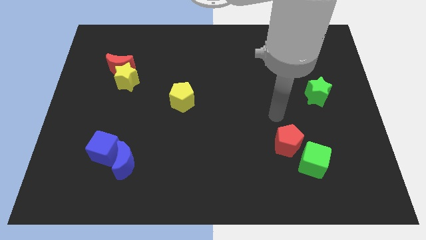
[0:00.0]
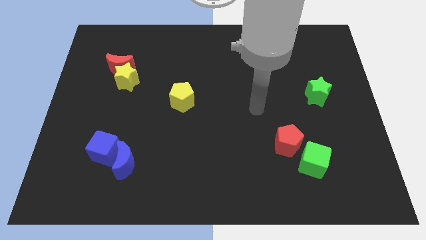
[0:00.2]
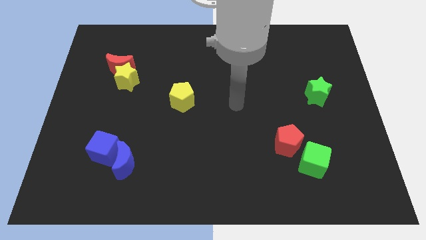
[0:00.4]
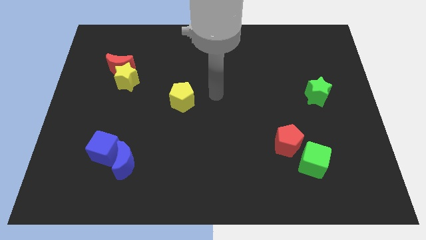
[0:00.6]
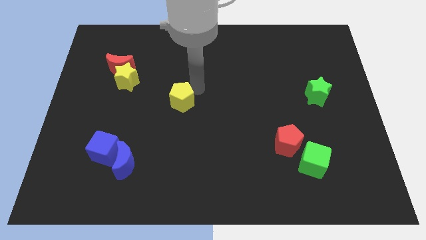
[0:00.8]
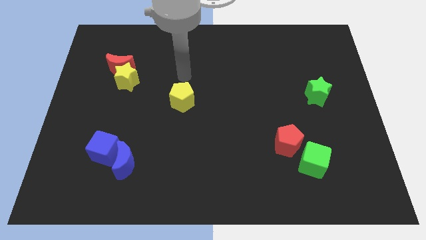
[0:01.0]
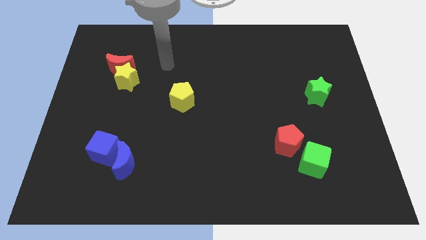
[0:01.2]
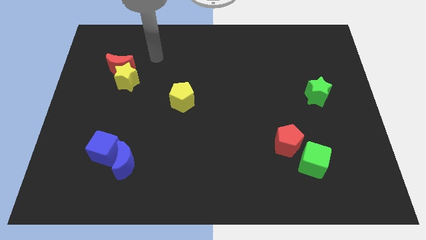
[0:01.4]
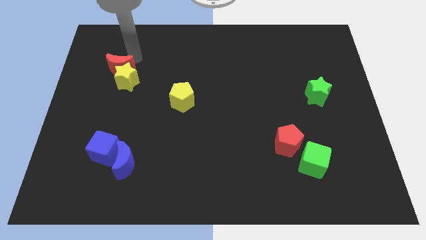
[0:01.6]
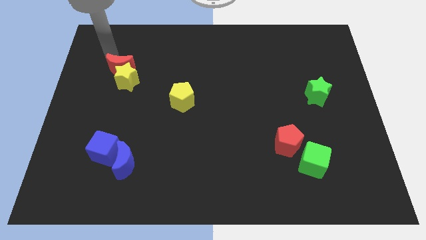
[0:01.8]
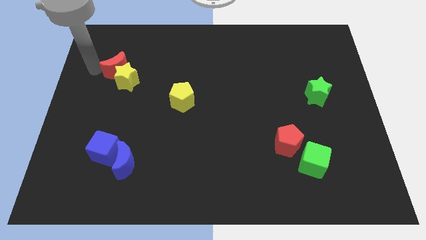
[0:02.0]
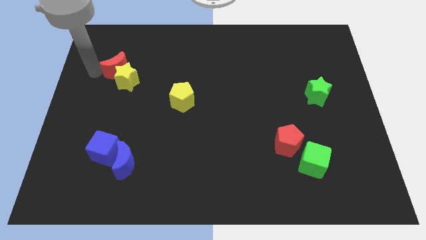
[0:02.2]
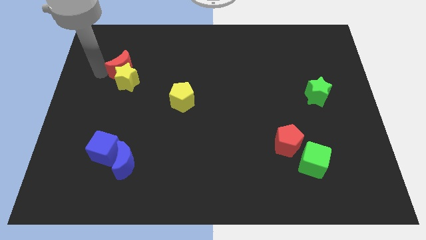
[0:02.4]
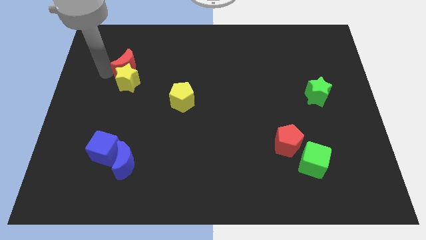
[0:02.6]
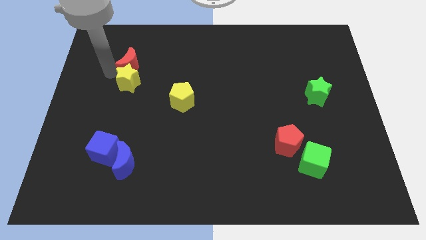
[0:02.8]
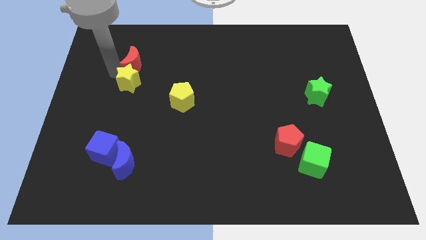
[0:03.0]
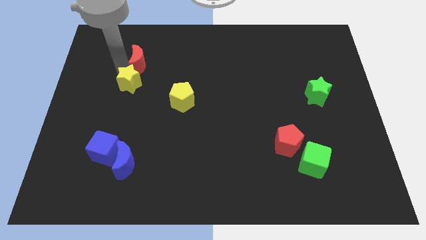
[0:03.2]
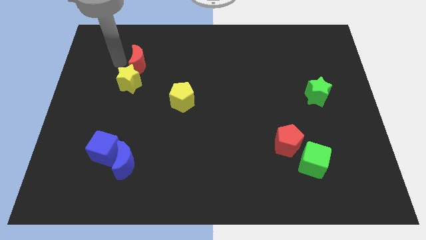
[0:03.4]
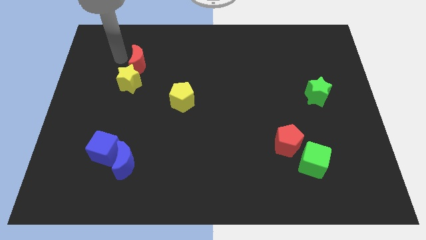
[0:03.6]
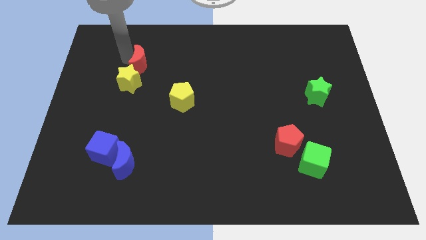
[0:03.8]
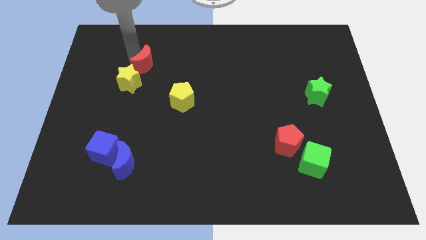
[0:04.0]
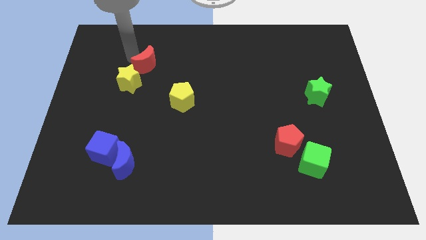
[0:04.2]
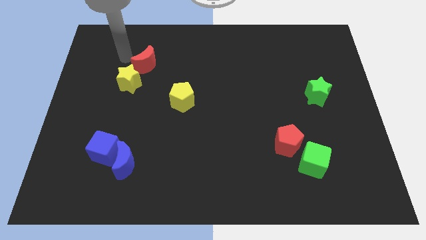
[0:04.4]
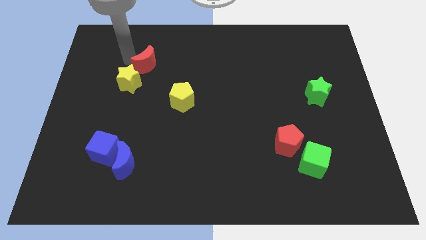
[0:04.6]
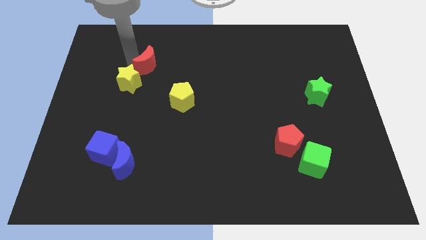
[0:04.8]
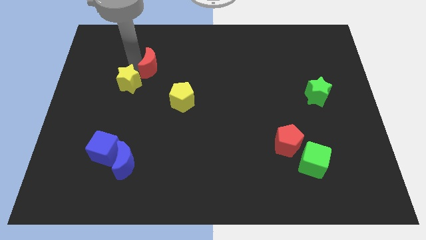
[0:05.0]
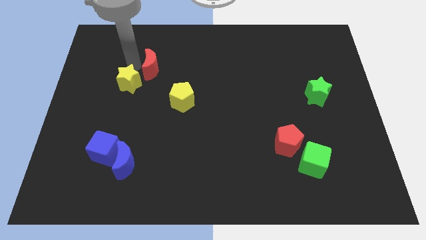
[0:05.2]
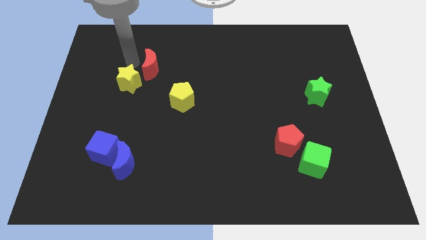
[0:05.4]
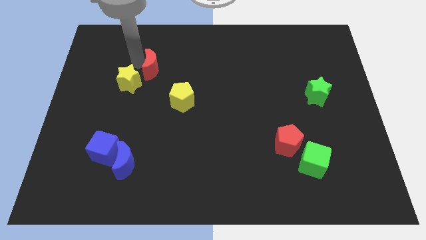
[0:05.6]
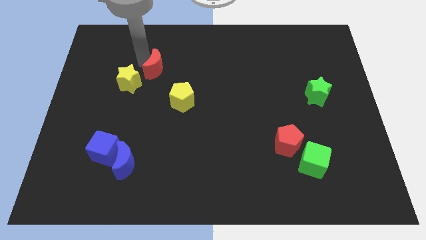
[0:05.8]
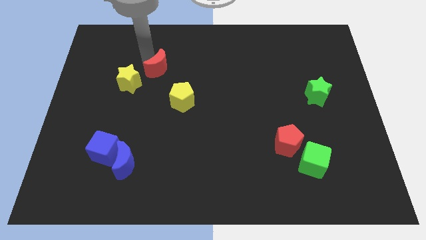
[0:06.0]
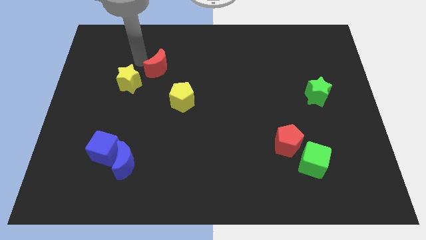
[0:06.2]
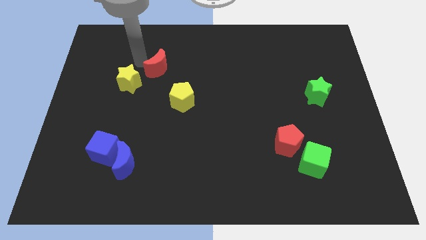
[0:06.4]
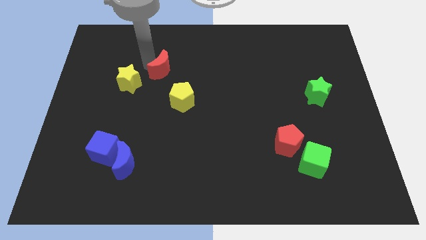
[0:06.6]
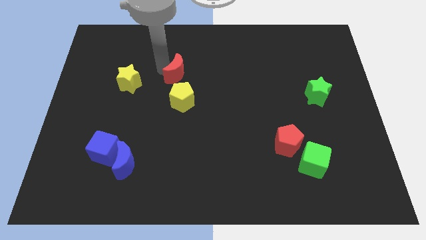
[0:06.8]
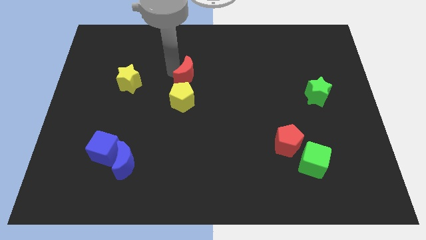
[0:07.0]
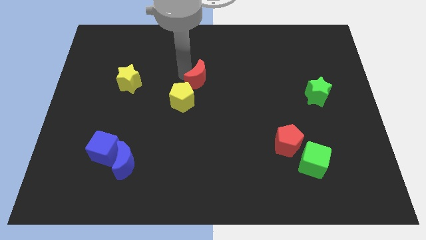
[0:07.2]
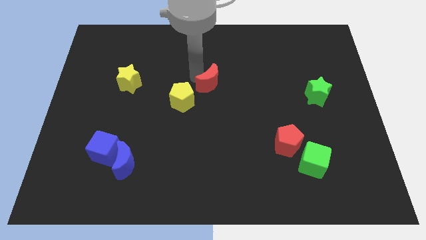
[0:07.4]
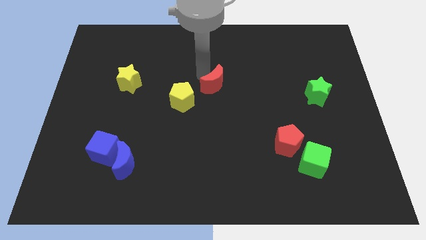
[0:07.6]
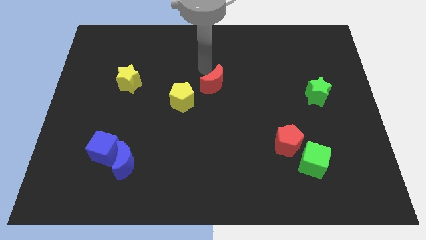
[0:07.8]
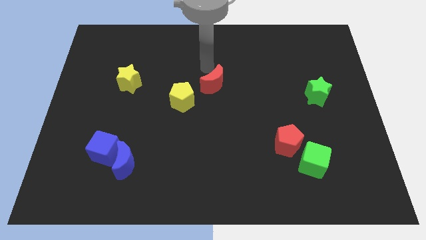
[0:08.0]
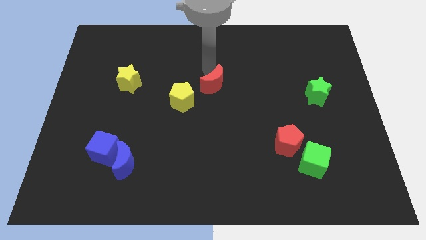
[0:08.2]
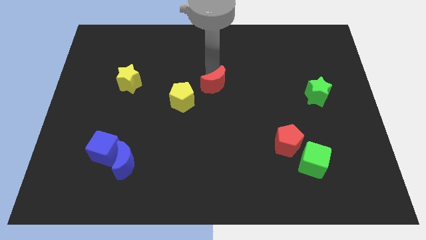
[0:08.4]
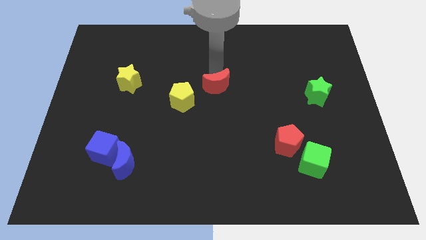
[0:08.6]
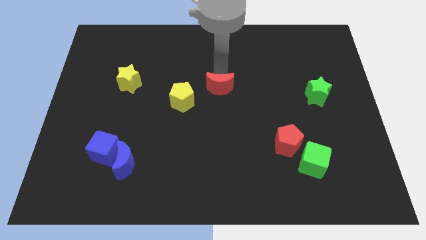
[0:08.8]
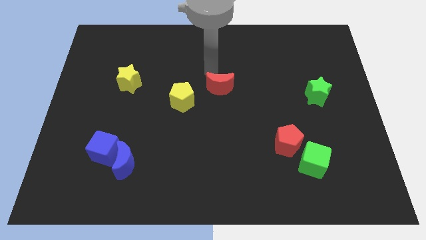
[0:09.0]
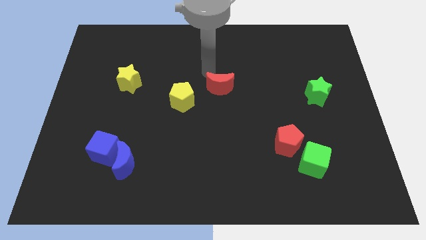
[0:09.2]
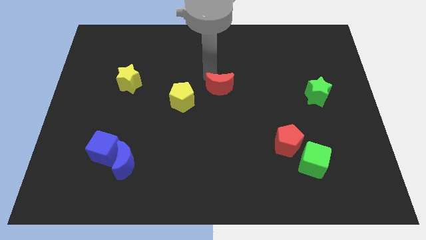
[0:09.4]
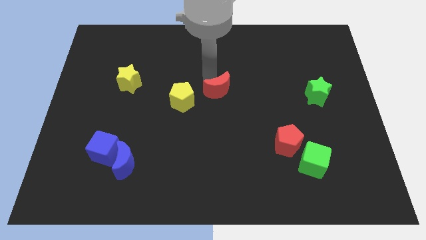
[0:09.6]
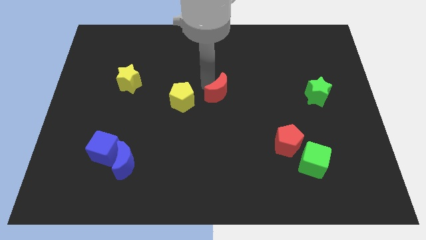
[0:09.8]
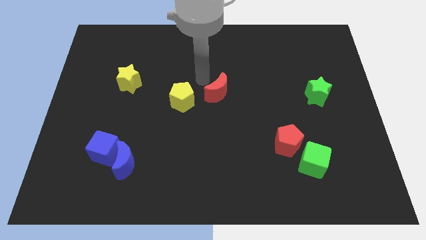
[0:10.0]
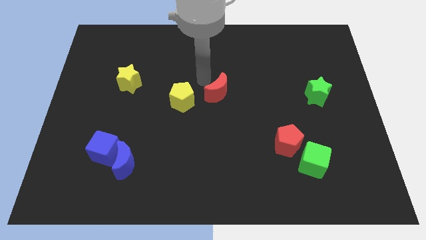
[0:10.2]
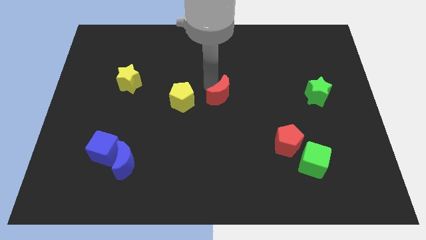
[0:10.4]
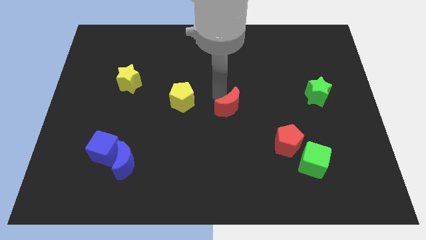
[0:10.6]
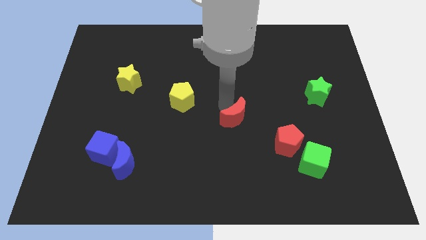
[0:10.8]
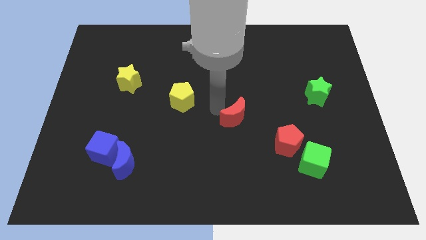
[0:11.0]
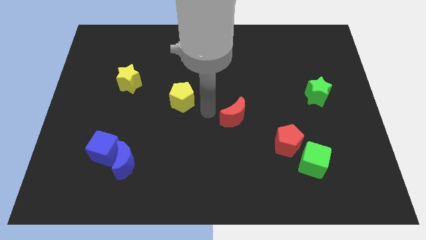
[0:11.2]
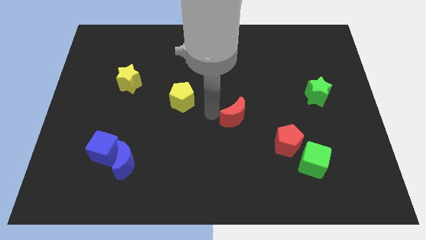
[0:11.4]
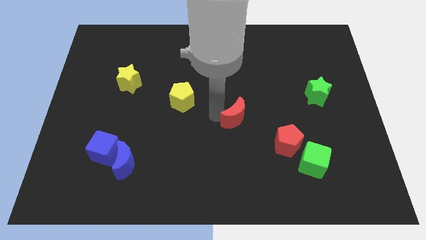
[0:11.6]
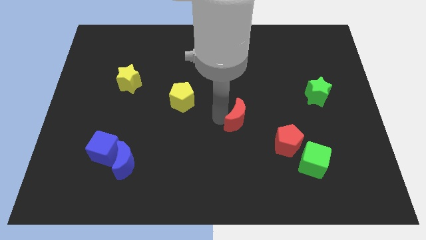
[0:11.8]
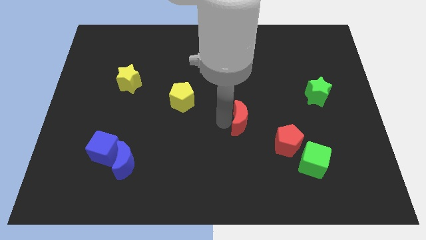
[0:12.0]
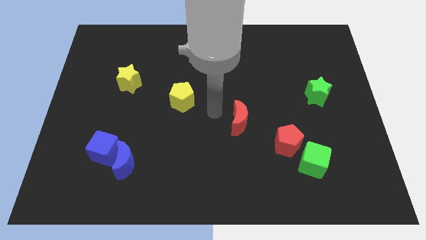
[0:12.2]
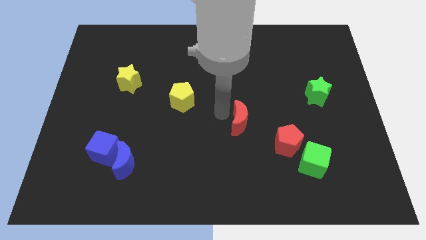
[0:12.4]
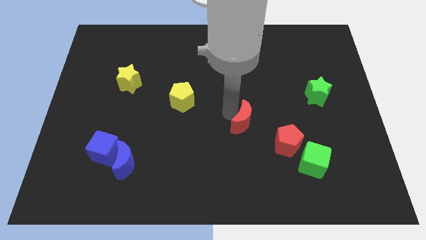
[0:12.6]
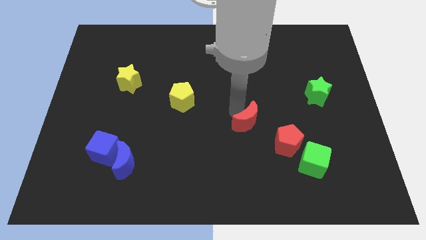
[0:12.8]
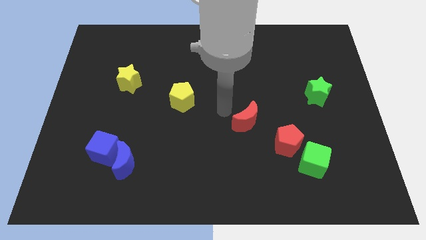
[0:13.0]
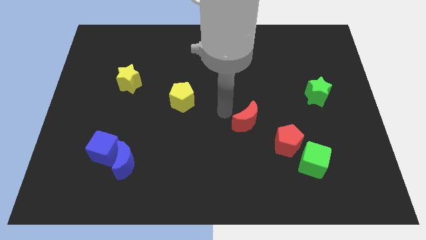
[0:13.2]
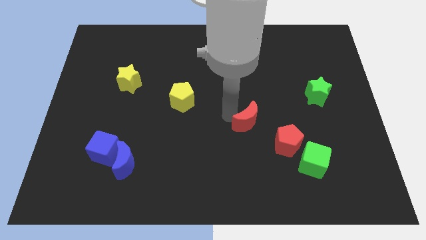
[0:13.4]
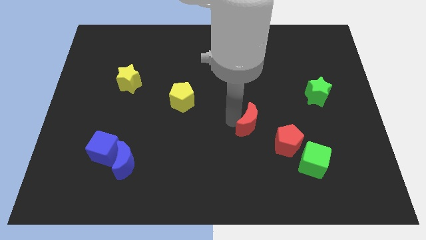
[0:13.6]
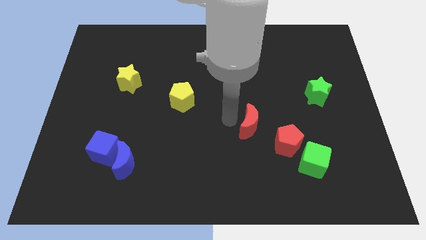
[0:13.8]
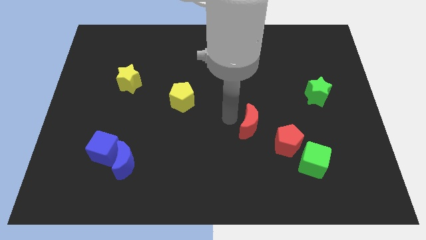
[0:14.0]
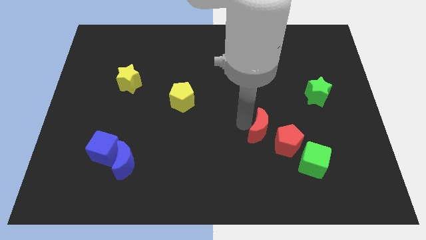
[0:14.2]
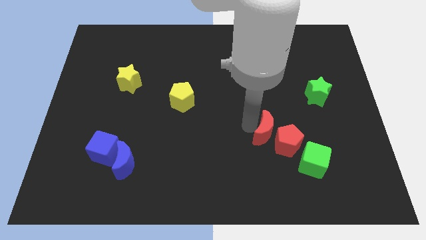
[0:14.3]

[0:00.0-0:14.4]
move the red moon to the red pentagon

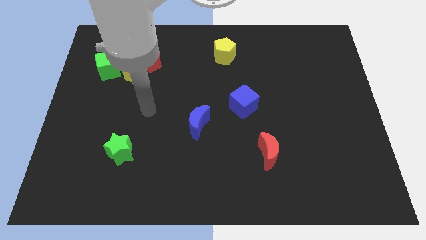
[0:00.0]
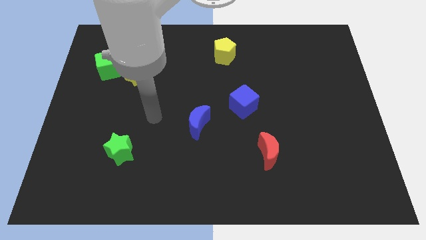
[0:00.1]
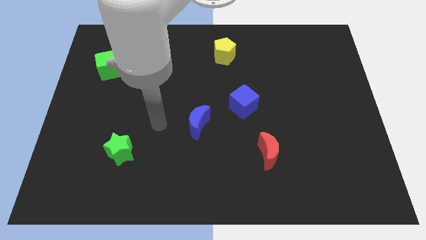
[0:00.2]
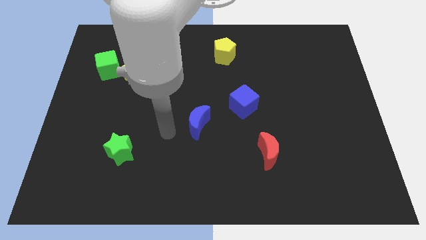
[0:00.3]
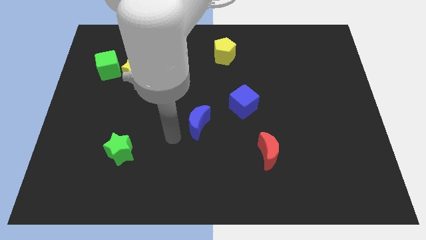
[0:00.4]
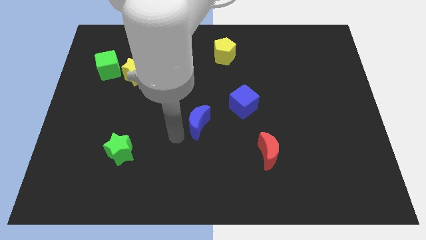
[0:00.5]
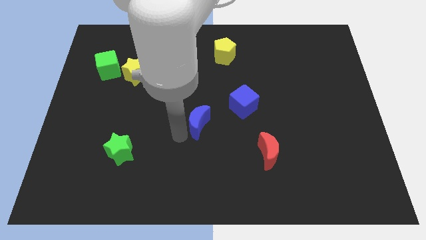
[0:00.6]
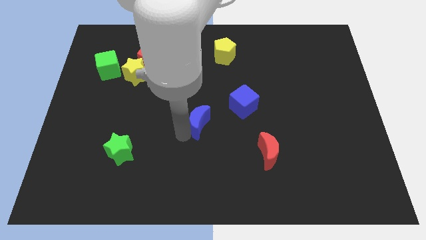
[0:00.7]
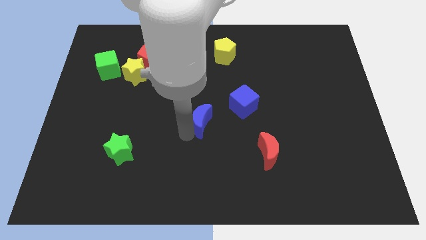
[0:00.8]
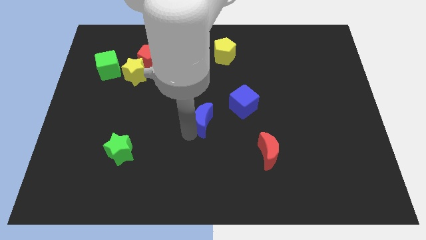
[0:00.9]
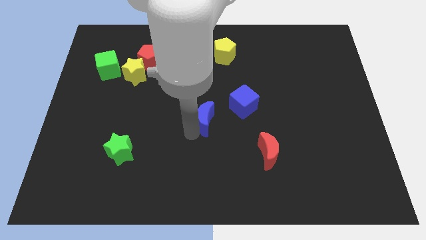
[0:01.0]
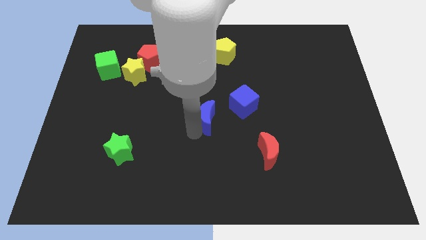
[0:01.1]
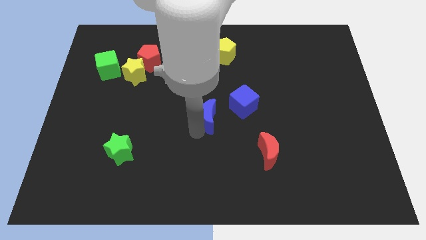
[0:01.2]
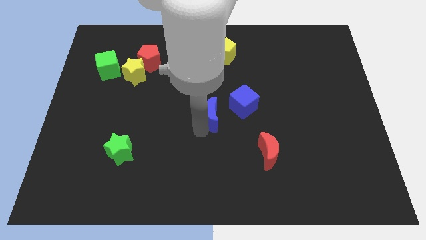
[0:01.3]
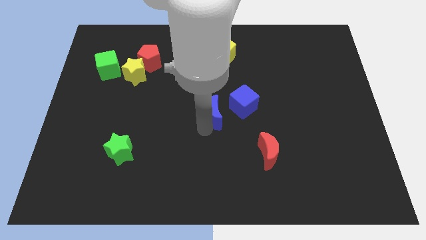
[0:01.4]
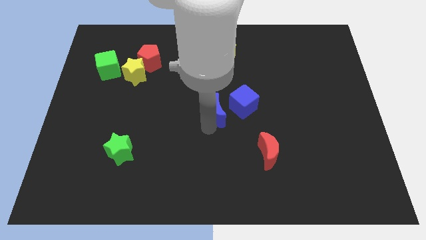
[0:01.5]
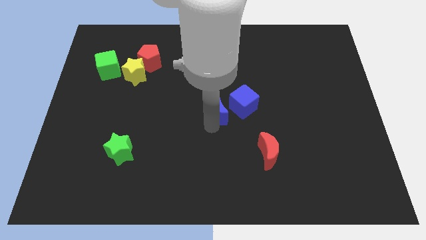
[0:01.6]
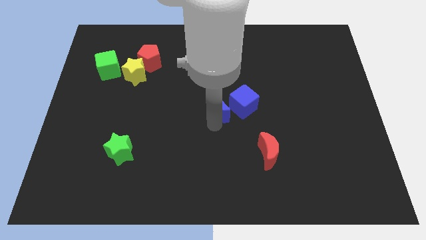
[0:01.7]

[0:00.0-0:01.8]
put the blue moon close to the blue cube
